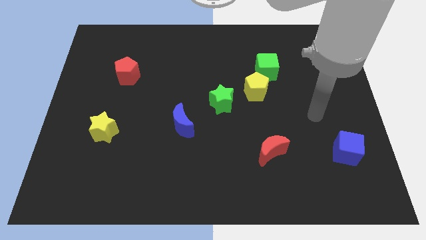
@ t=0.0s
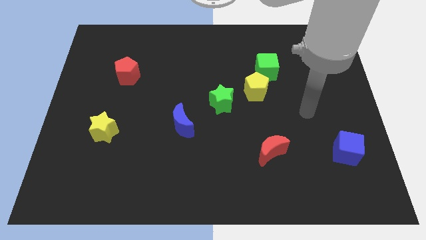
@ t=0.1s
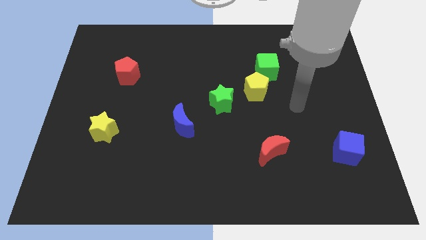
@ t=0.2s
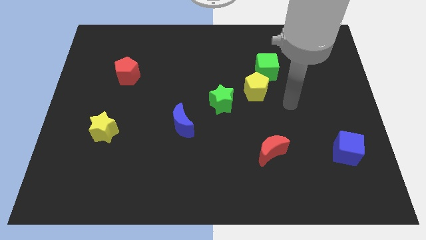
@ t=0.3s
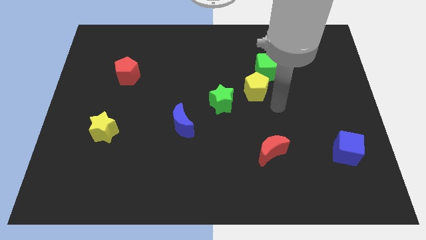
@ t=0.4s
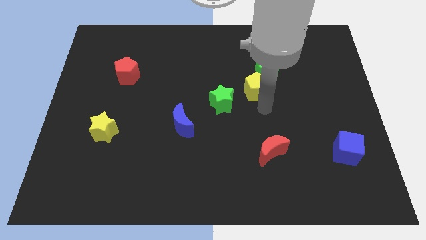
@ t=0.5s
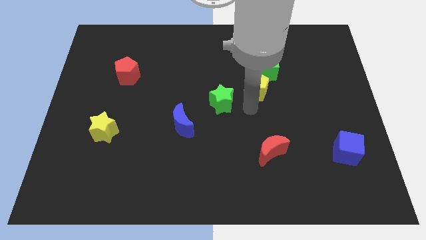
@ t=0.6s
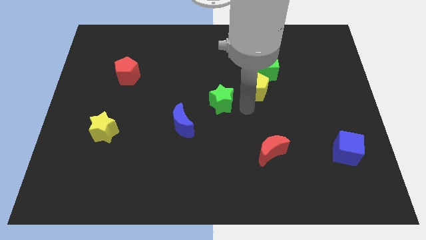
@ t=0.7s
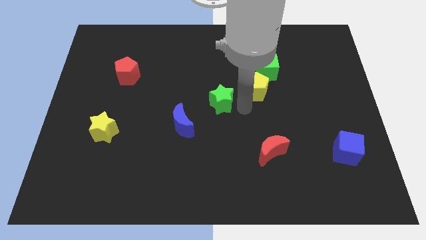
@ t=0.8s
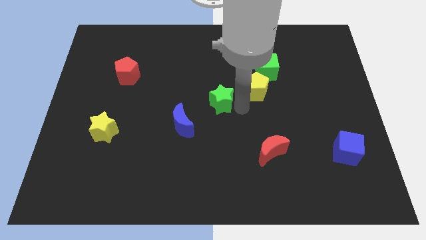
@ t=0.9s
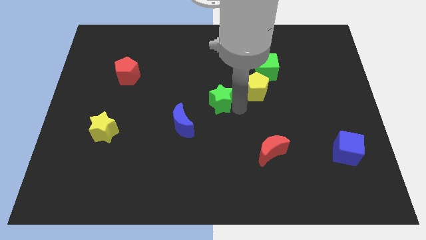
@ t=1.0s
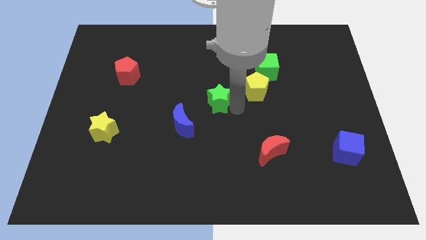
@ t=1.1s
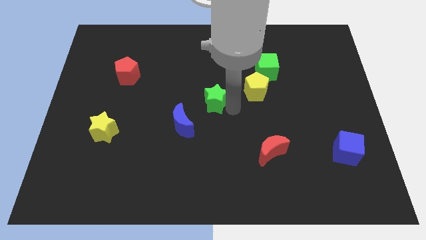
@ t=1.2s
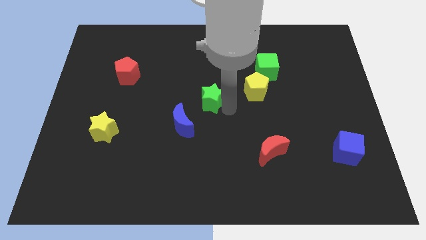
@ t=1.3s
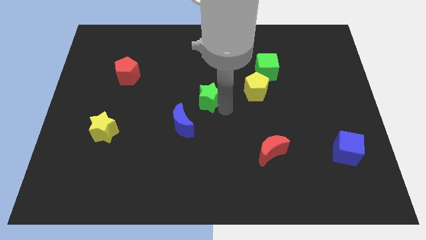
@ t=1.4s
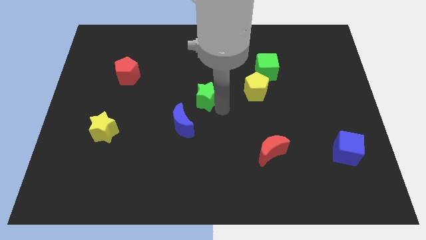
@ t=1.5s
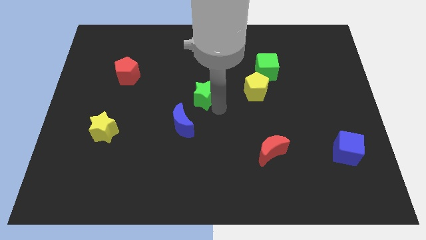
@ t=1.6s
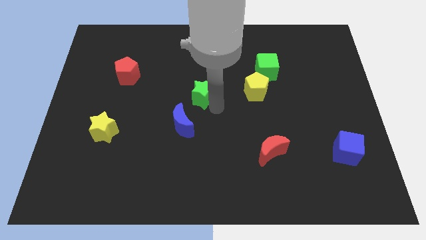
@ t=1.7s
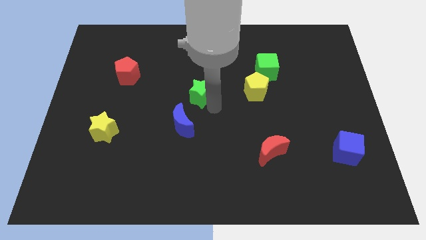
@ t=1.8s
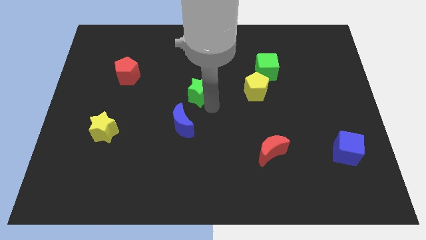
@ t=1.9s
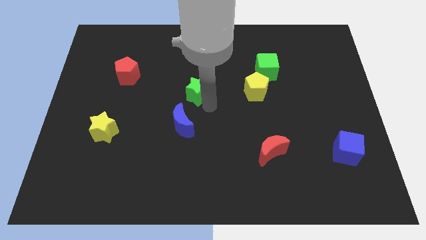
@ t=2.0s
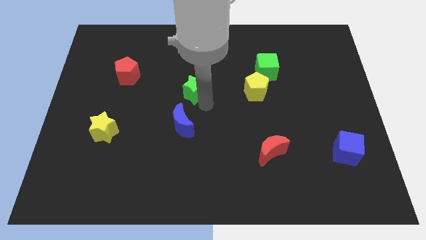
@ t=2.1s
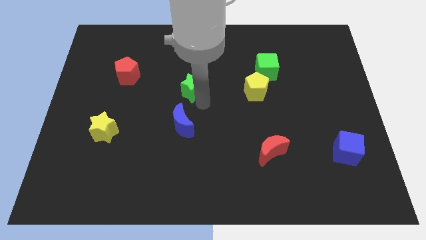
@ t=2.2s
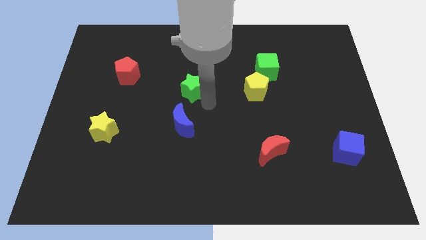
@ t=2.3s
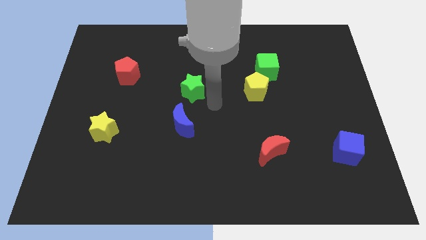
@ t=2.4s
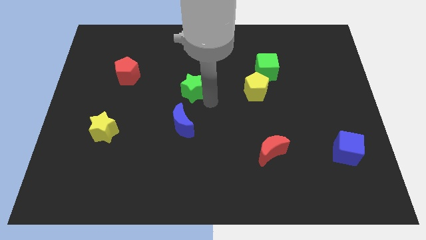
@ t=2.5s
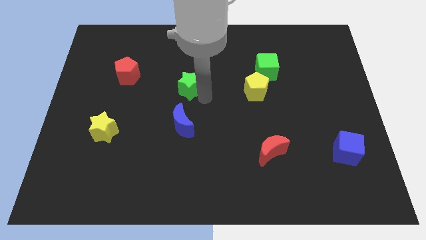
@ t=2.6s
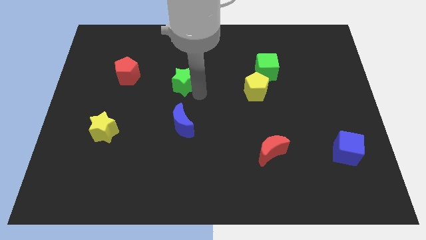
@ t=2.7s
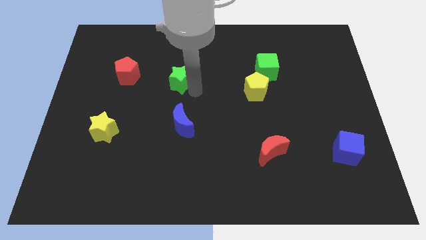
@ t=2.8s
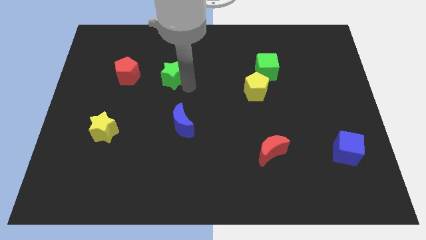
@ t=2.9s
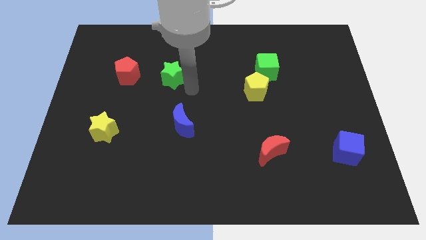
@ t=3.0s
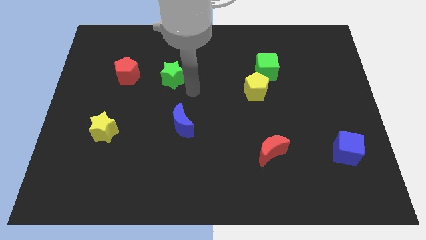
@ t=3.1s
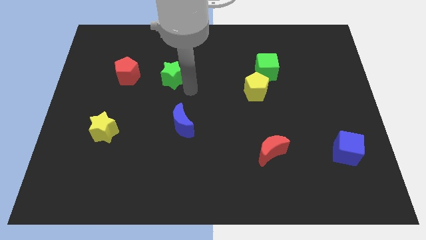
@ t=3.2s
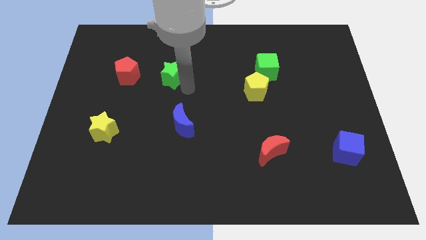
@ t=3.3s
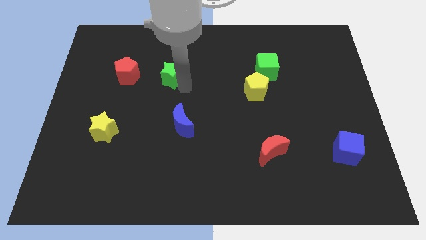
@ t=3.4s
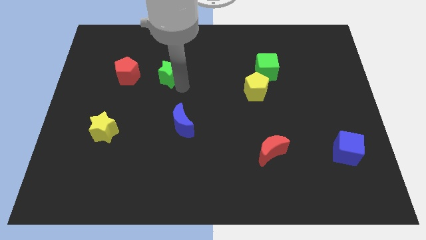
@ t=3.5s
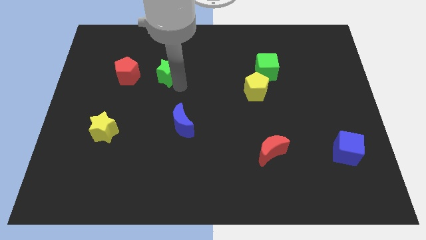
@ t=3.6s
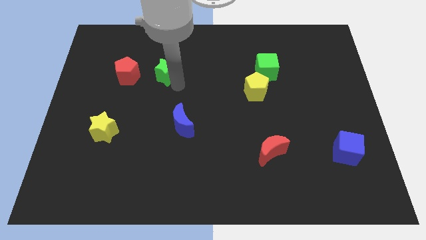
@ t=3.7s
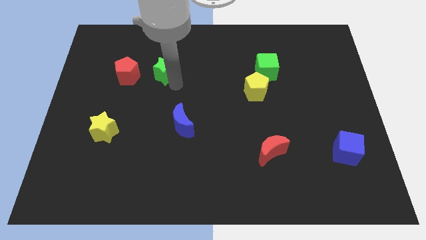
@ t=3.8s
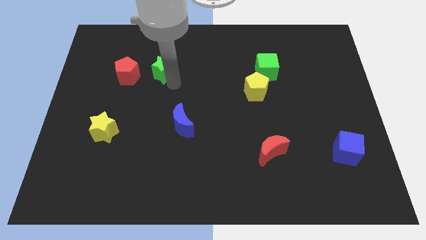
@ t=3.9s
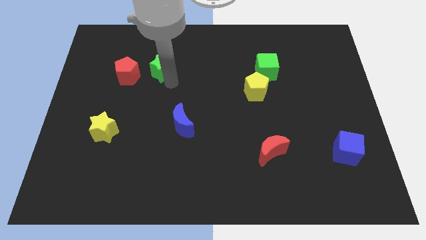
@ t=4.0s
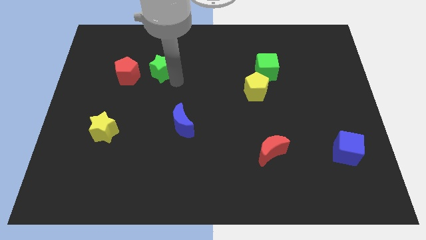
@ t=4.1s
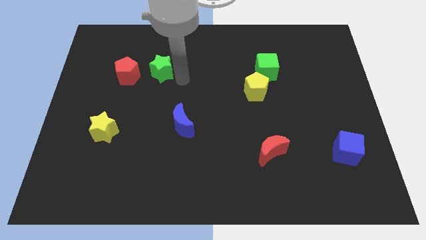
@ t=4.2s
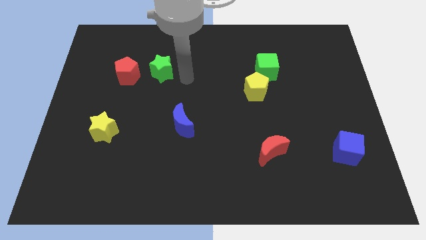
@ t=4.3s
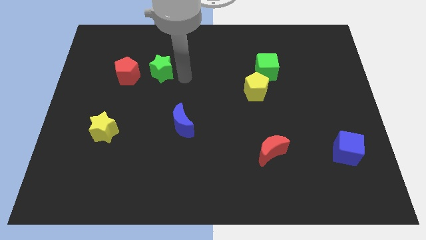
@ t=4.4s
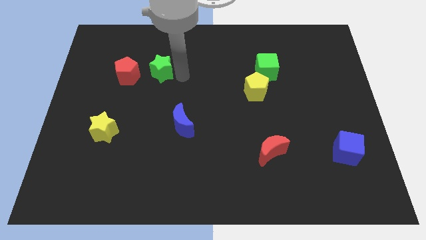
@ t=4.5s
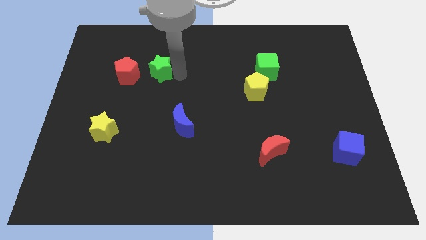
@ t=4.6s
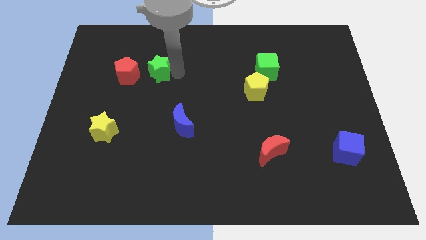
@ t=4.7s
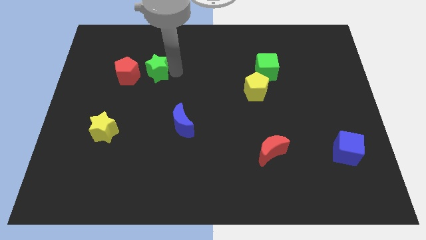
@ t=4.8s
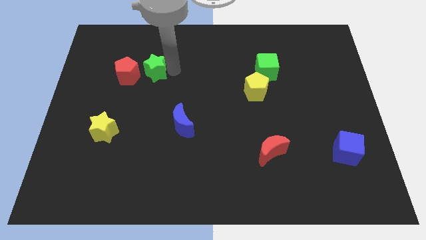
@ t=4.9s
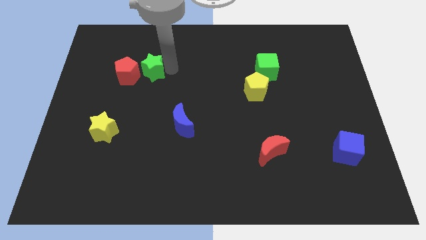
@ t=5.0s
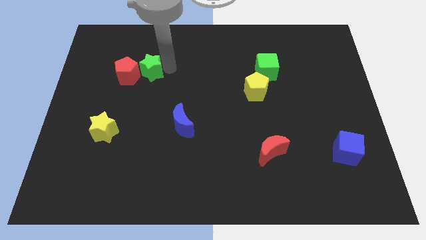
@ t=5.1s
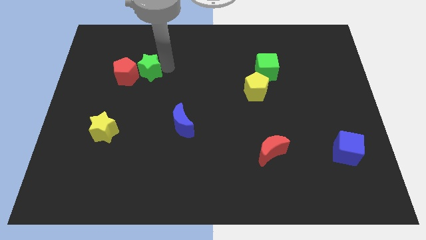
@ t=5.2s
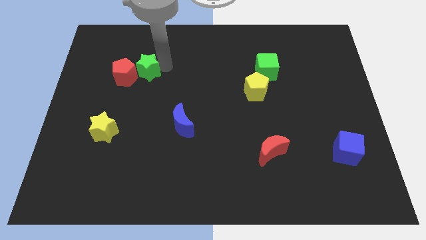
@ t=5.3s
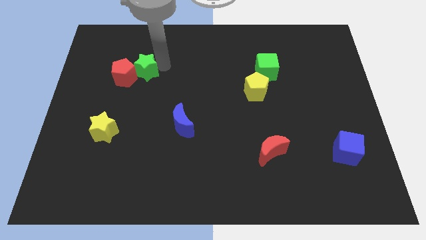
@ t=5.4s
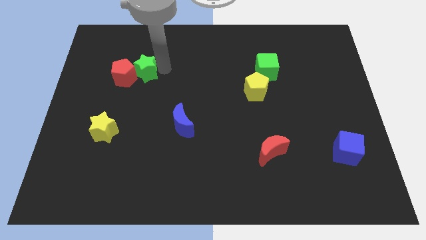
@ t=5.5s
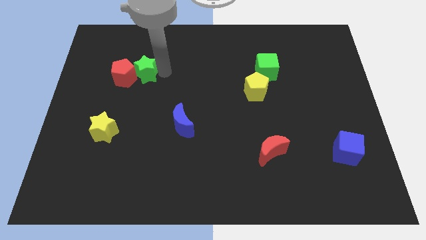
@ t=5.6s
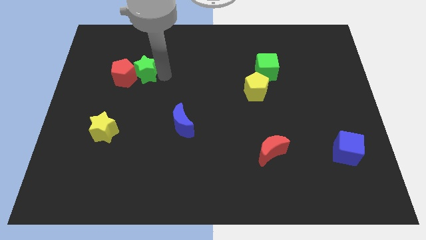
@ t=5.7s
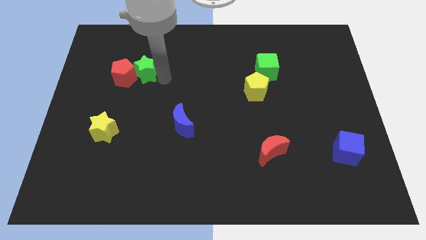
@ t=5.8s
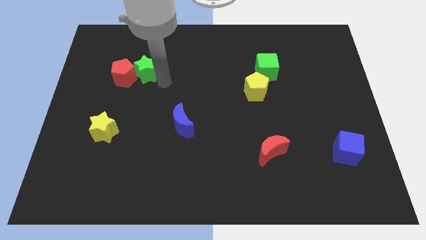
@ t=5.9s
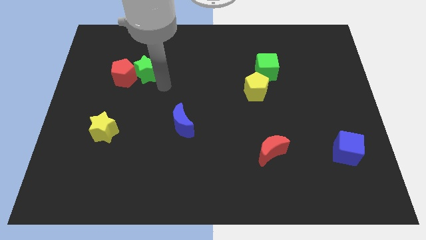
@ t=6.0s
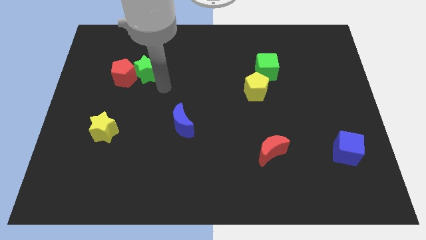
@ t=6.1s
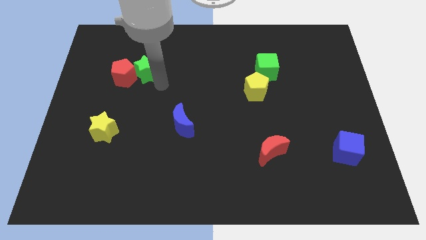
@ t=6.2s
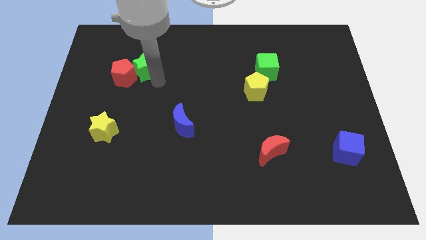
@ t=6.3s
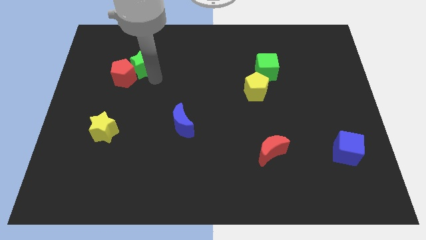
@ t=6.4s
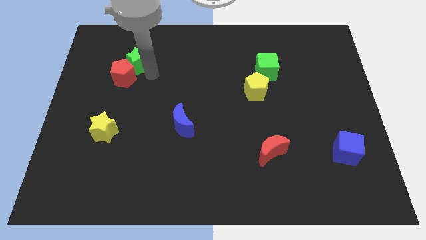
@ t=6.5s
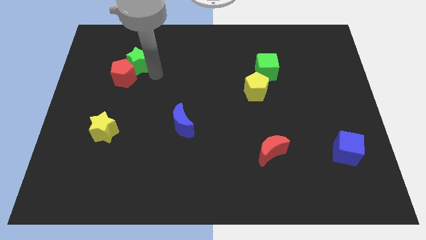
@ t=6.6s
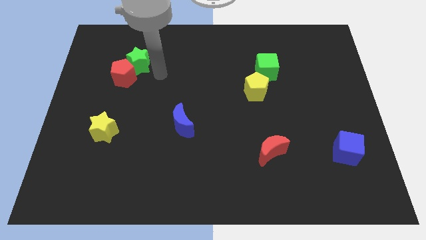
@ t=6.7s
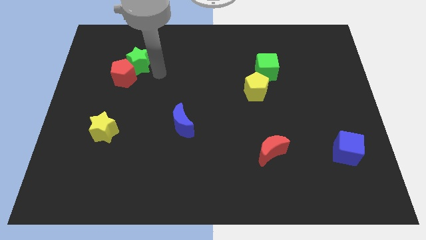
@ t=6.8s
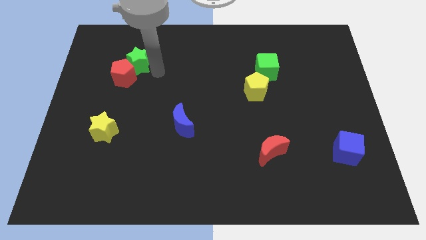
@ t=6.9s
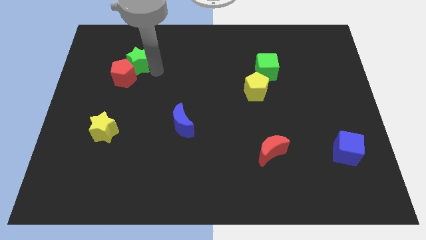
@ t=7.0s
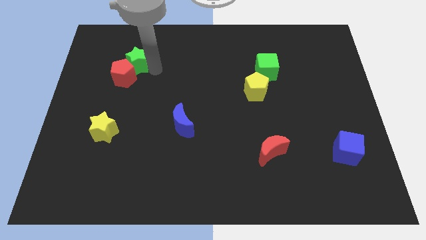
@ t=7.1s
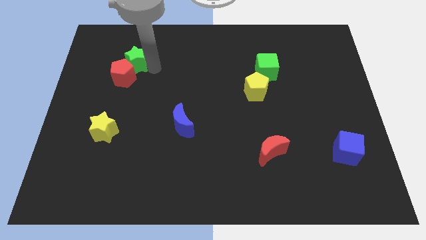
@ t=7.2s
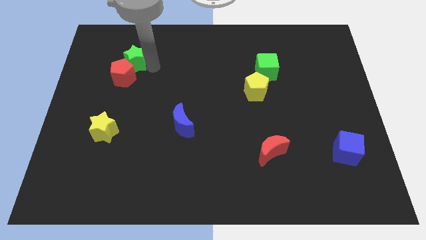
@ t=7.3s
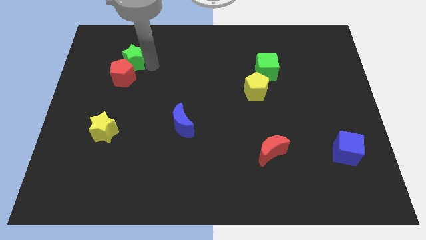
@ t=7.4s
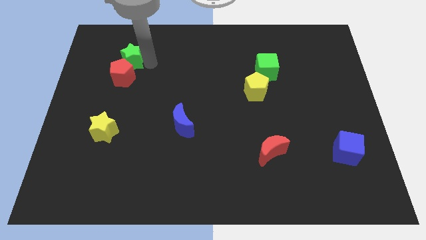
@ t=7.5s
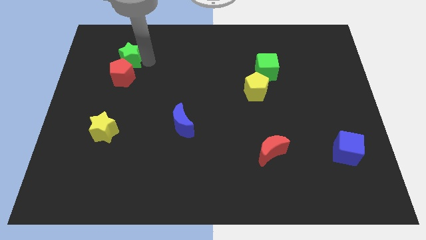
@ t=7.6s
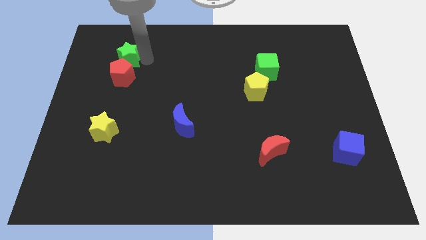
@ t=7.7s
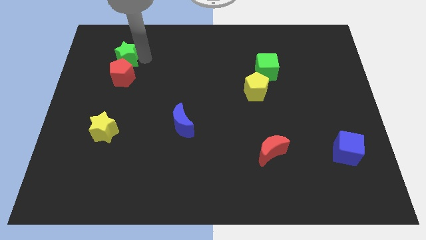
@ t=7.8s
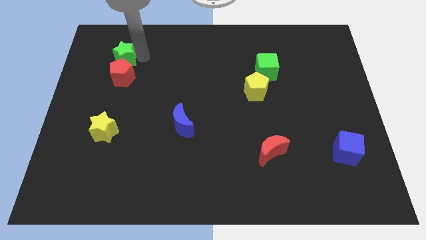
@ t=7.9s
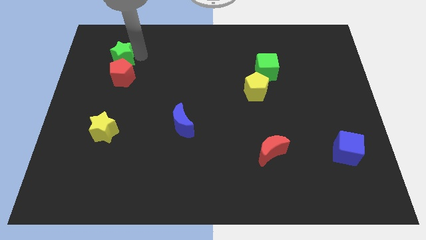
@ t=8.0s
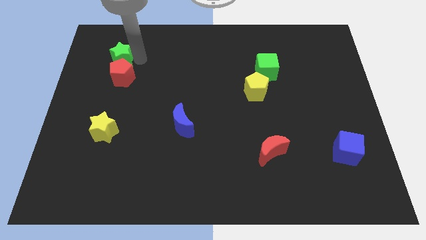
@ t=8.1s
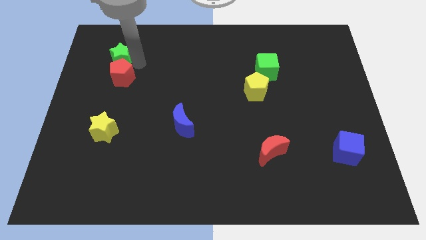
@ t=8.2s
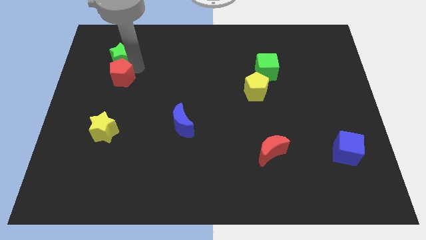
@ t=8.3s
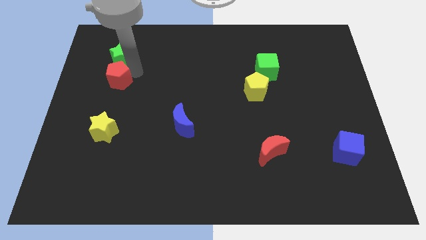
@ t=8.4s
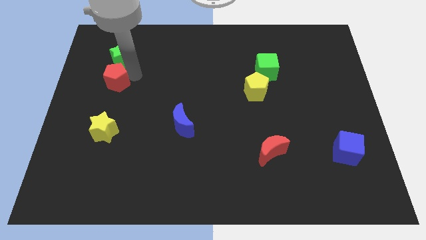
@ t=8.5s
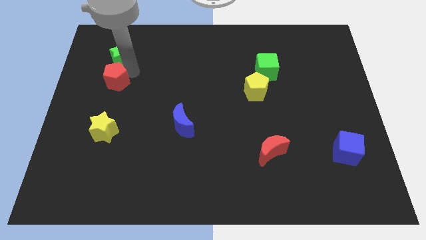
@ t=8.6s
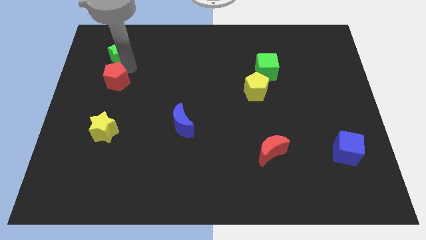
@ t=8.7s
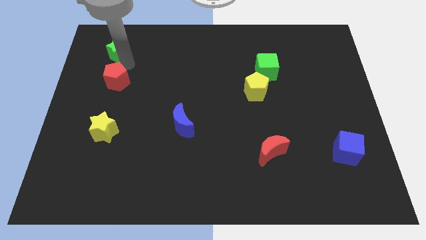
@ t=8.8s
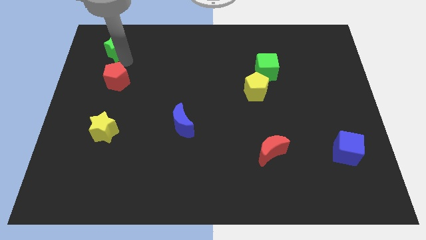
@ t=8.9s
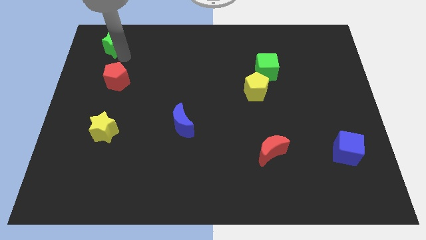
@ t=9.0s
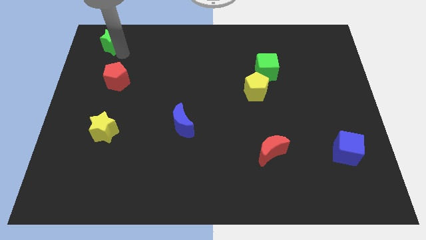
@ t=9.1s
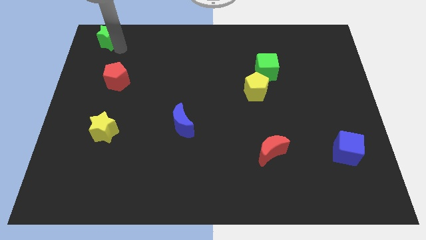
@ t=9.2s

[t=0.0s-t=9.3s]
slide the green star to the top left
